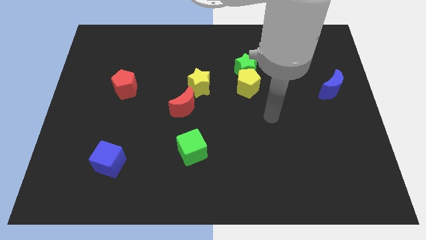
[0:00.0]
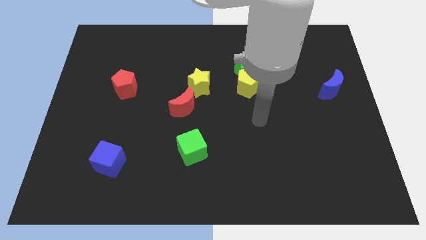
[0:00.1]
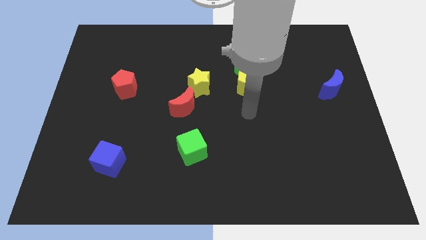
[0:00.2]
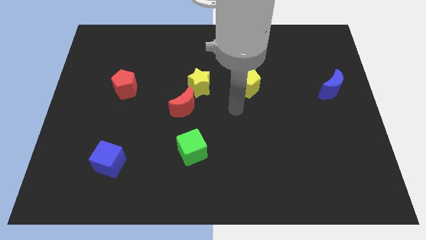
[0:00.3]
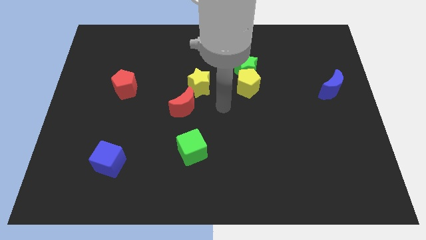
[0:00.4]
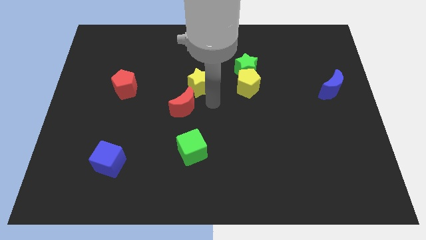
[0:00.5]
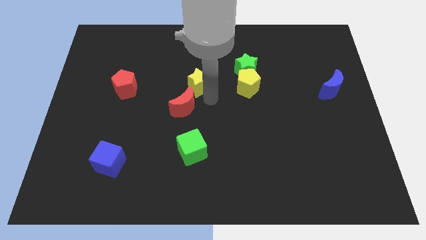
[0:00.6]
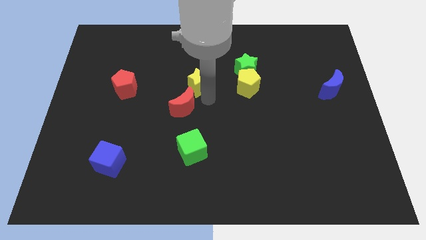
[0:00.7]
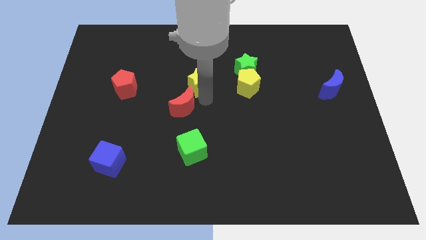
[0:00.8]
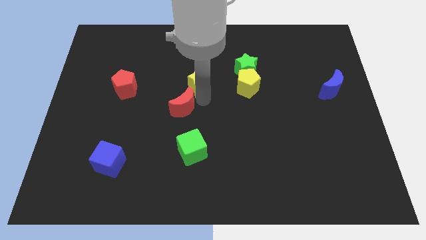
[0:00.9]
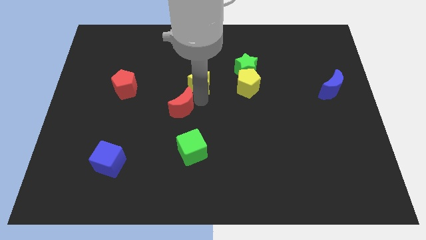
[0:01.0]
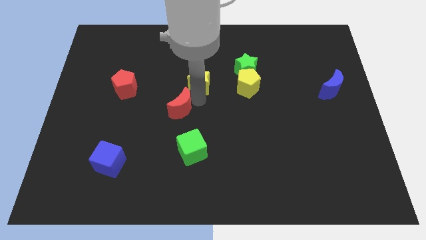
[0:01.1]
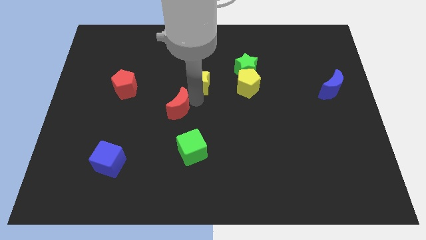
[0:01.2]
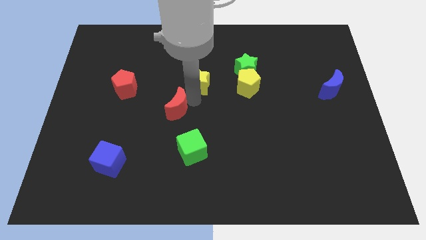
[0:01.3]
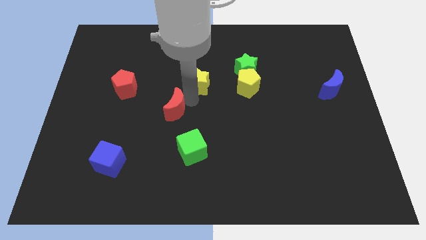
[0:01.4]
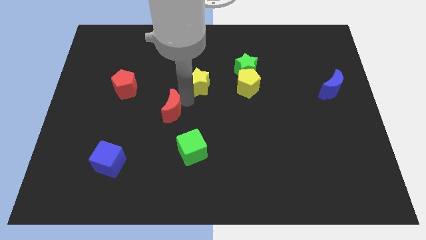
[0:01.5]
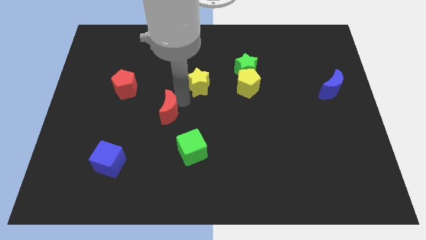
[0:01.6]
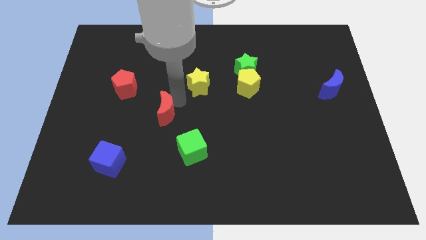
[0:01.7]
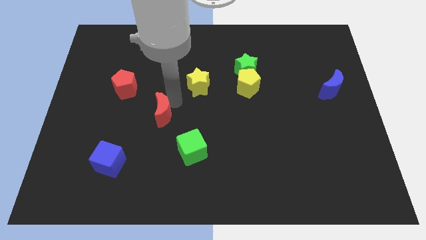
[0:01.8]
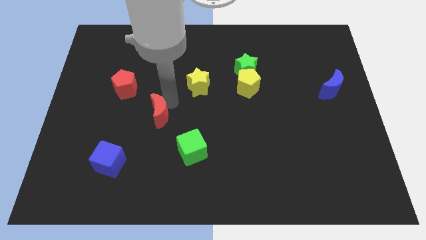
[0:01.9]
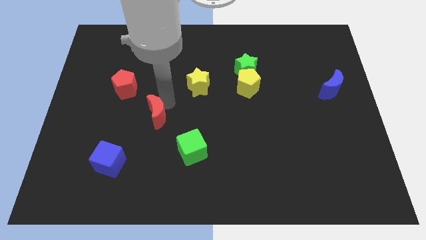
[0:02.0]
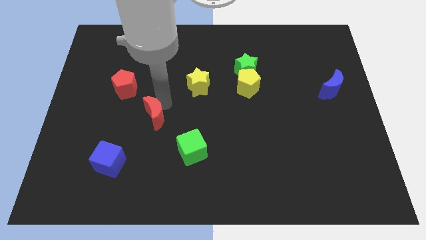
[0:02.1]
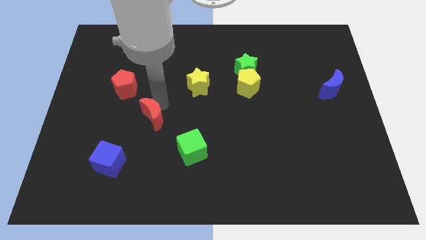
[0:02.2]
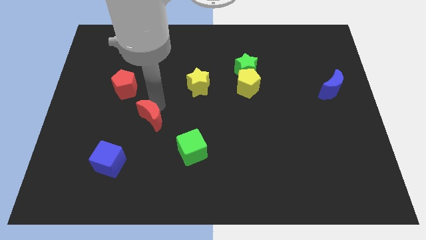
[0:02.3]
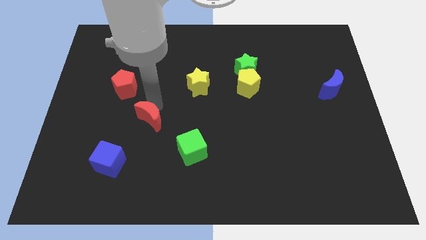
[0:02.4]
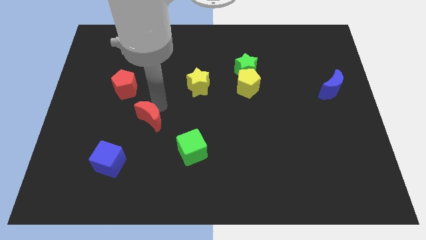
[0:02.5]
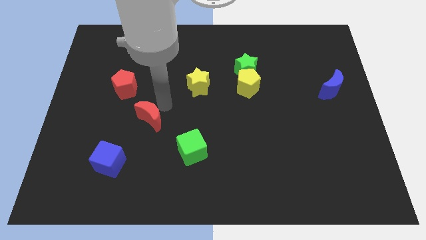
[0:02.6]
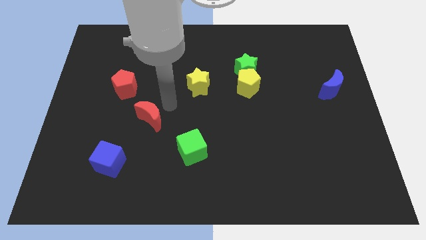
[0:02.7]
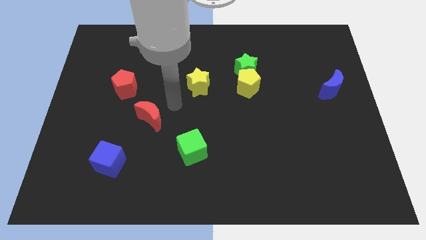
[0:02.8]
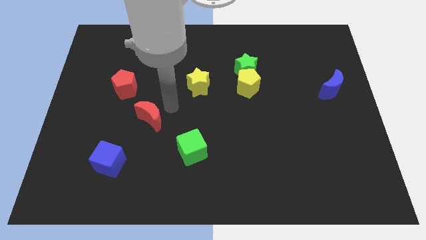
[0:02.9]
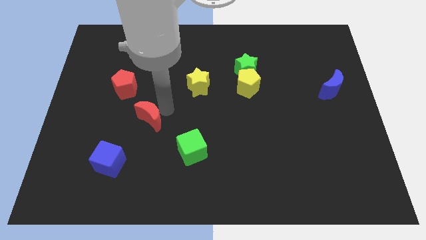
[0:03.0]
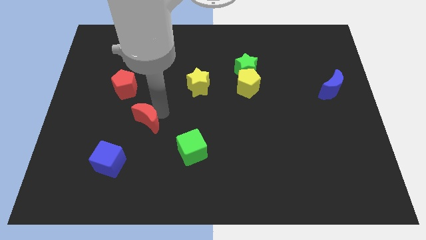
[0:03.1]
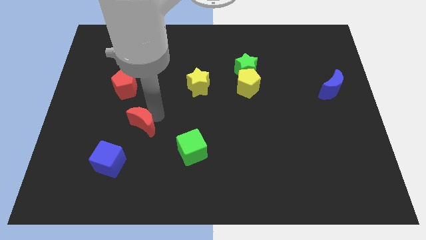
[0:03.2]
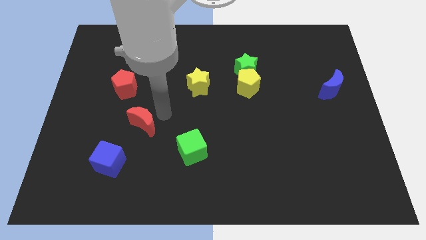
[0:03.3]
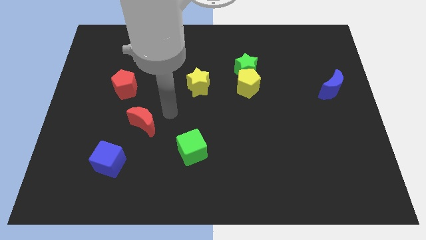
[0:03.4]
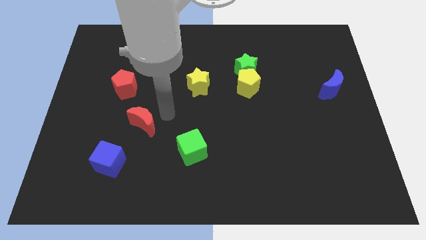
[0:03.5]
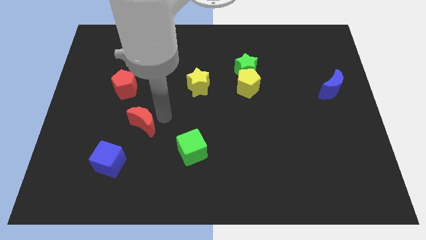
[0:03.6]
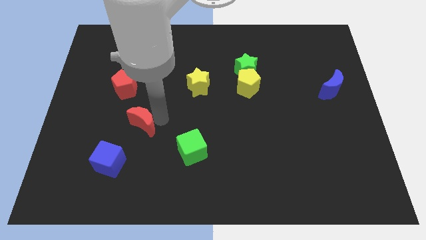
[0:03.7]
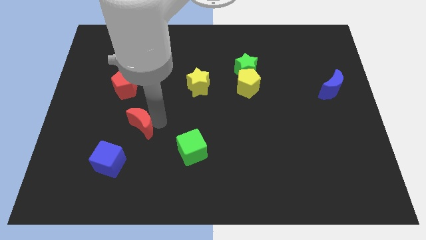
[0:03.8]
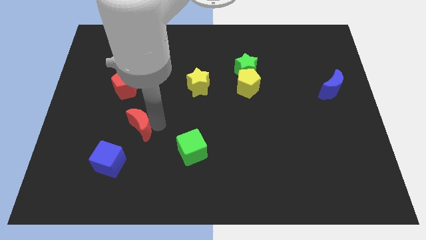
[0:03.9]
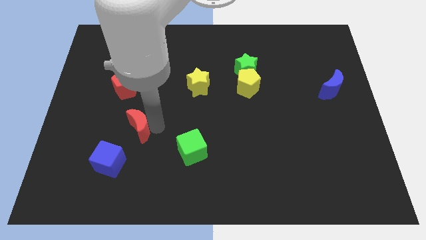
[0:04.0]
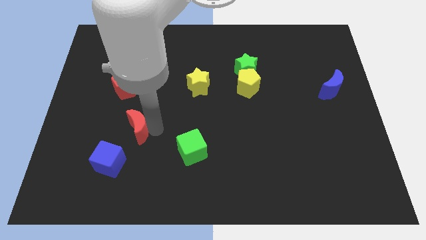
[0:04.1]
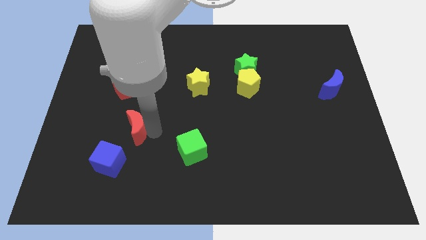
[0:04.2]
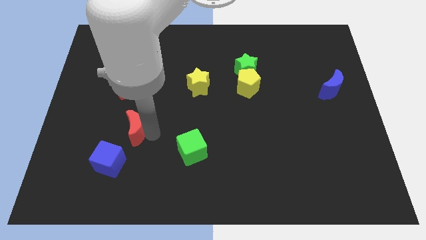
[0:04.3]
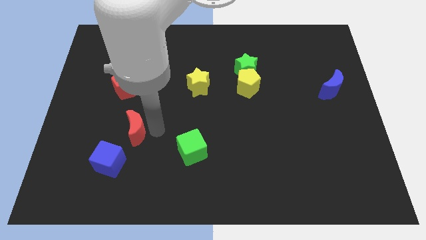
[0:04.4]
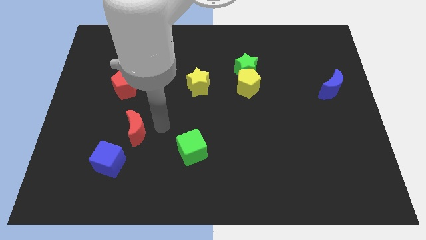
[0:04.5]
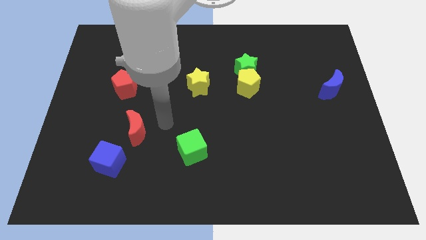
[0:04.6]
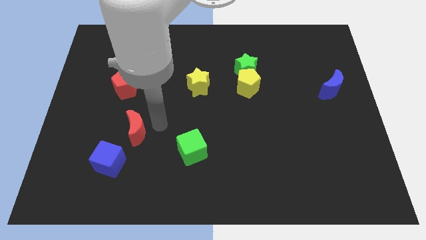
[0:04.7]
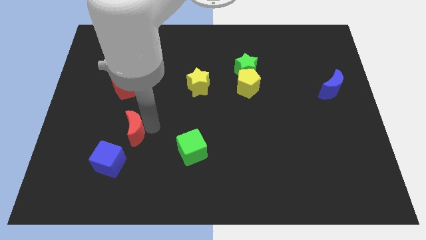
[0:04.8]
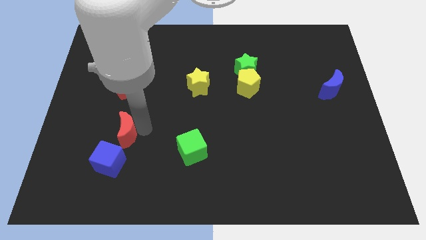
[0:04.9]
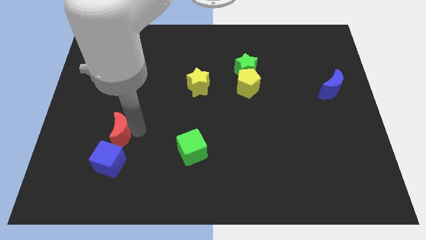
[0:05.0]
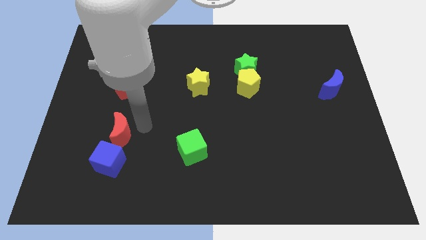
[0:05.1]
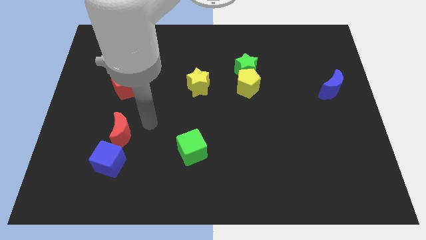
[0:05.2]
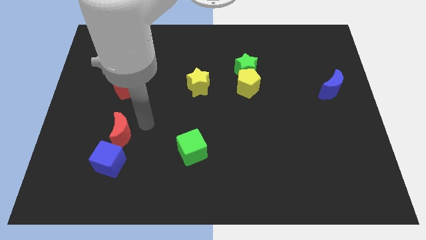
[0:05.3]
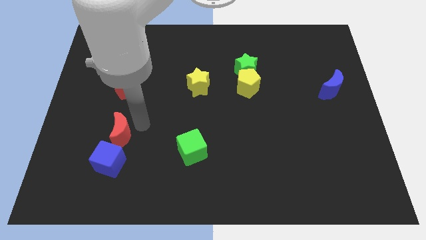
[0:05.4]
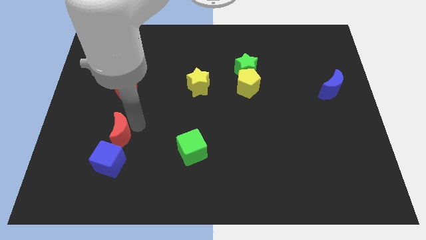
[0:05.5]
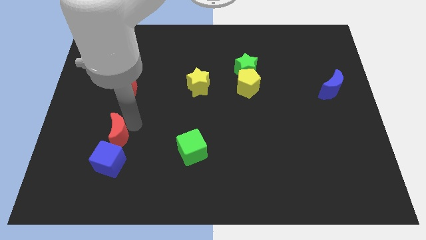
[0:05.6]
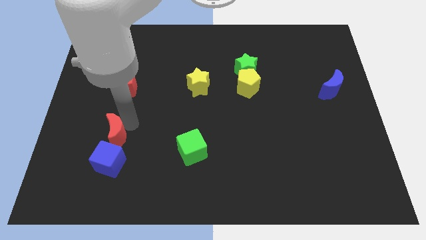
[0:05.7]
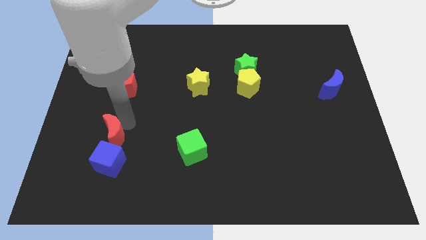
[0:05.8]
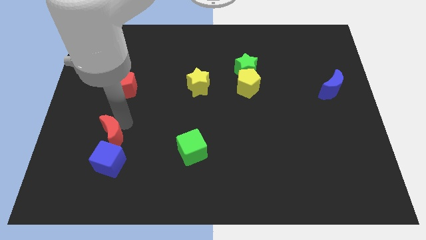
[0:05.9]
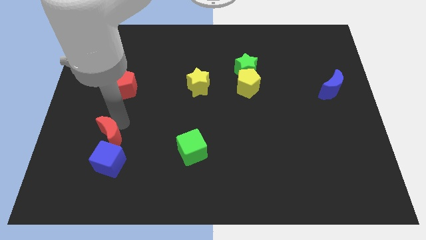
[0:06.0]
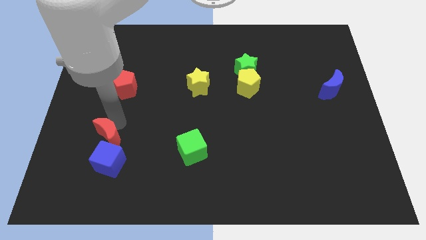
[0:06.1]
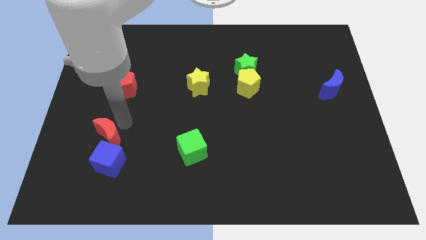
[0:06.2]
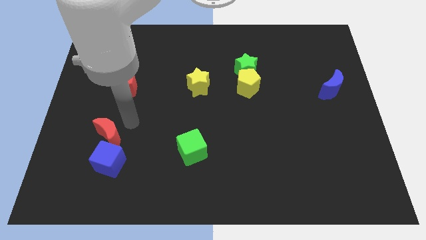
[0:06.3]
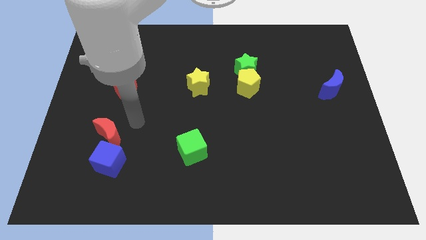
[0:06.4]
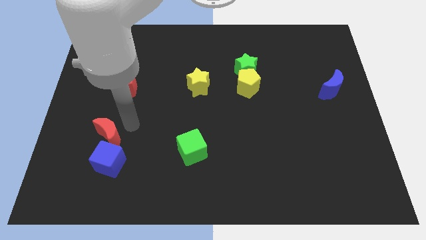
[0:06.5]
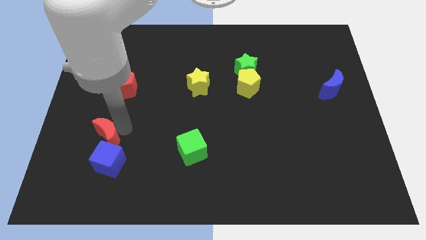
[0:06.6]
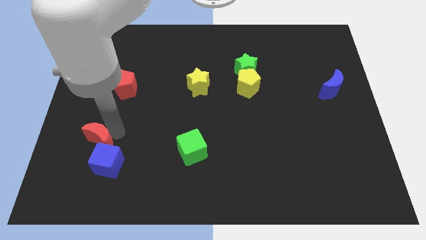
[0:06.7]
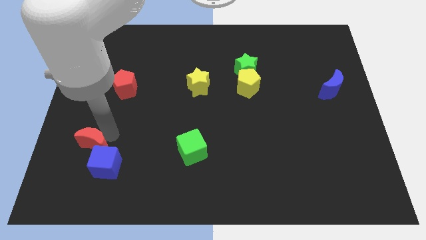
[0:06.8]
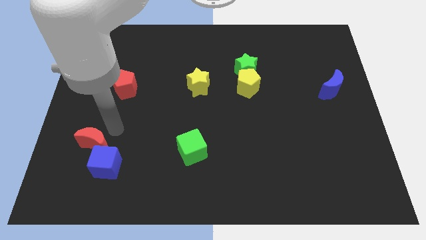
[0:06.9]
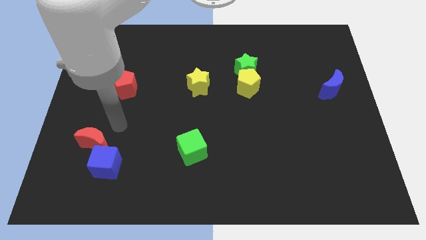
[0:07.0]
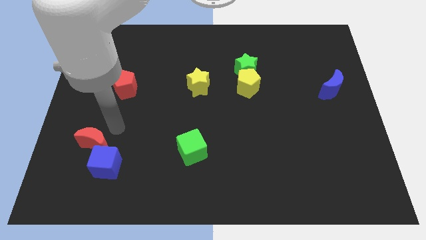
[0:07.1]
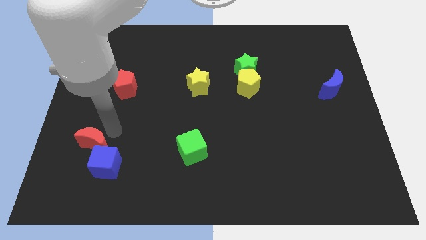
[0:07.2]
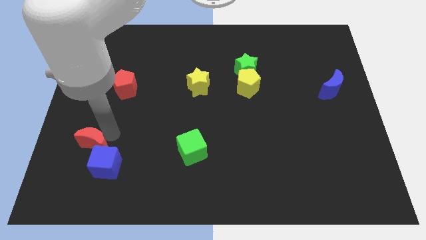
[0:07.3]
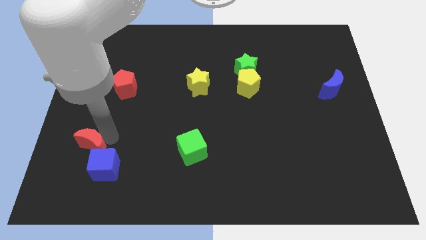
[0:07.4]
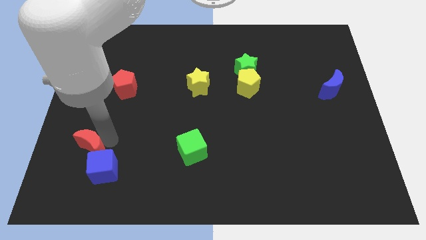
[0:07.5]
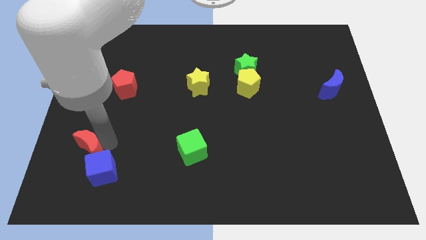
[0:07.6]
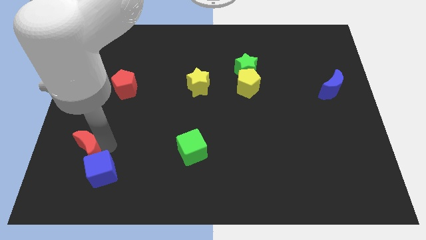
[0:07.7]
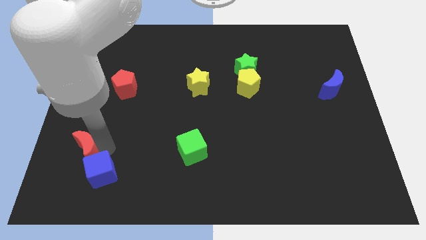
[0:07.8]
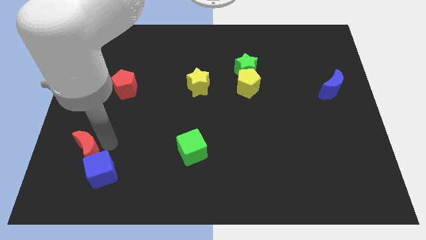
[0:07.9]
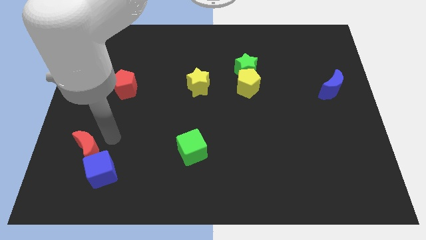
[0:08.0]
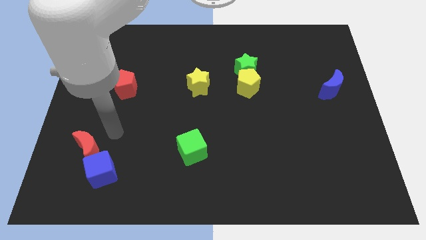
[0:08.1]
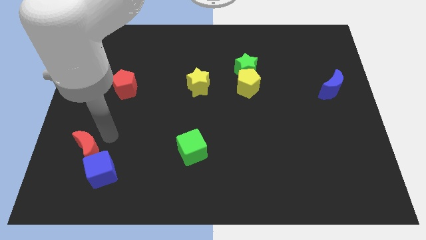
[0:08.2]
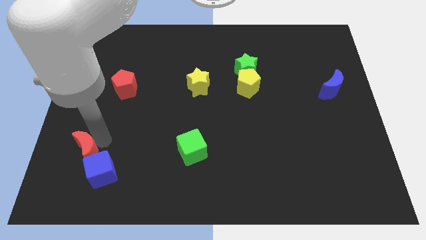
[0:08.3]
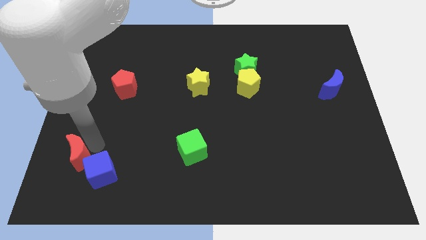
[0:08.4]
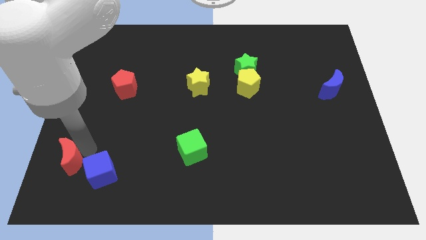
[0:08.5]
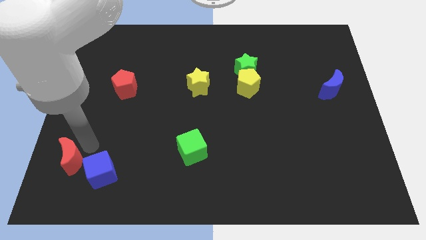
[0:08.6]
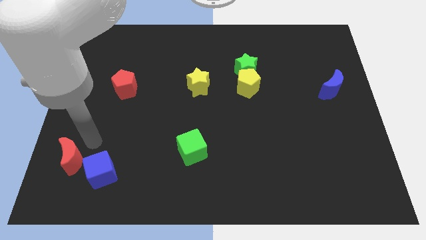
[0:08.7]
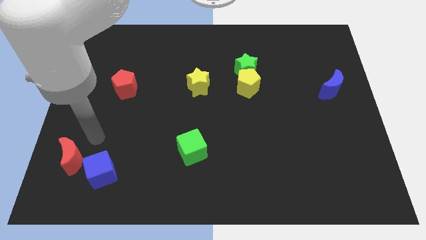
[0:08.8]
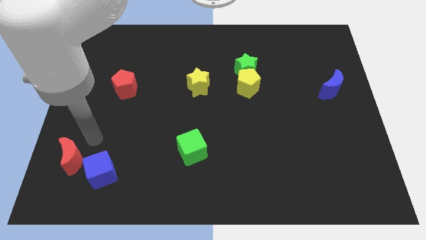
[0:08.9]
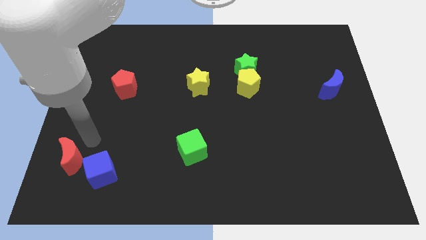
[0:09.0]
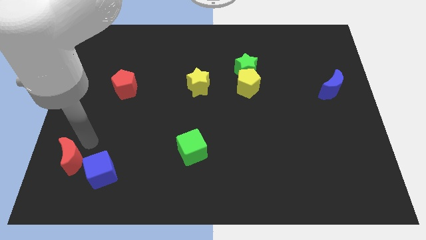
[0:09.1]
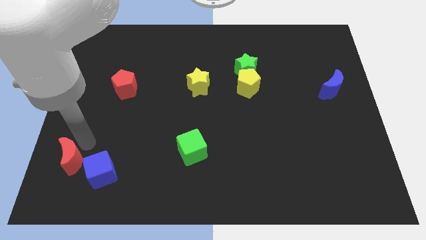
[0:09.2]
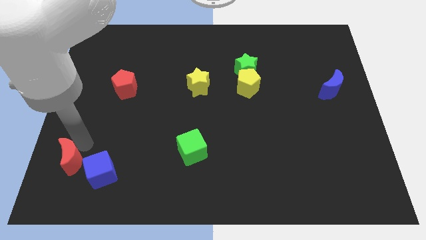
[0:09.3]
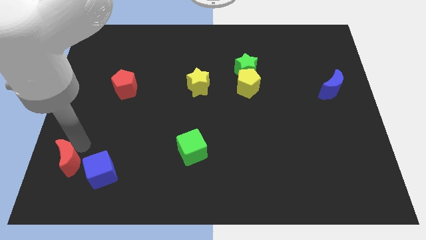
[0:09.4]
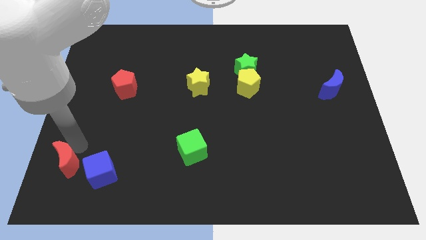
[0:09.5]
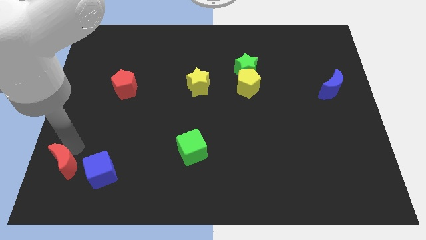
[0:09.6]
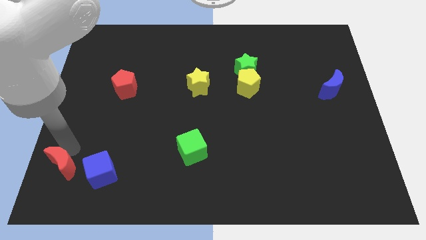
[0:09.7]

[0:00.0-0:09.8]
move the red moon to the bottom left corner
